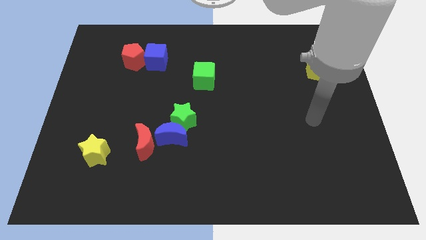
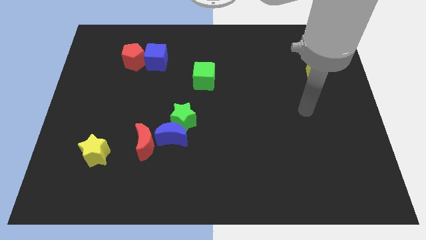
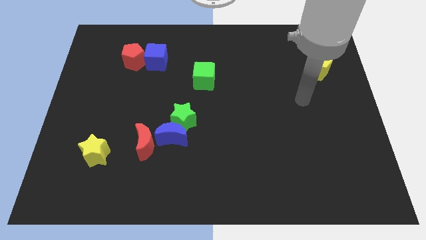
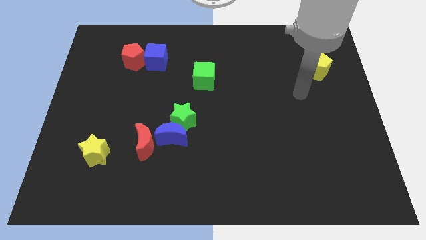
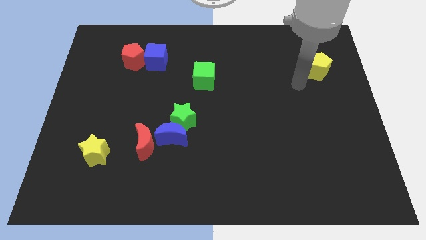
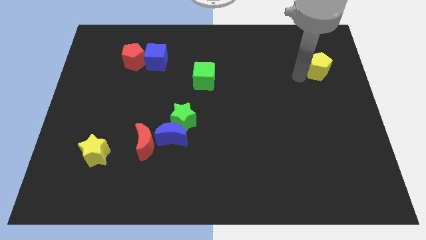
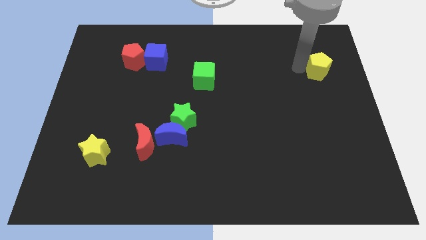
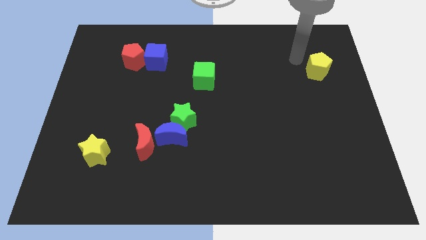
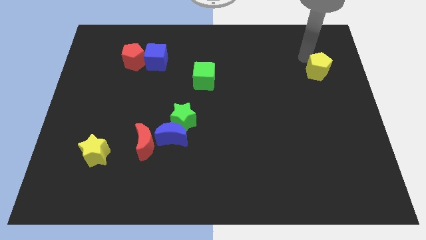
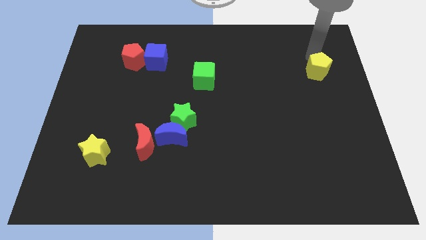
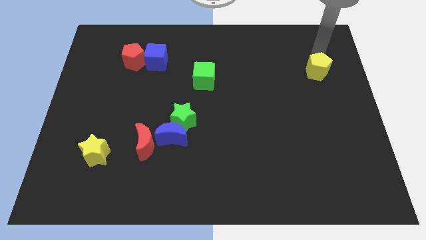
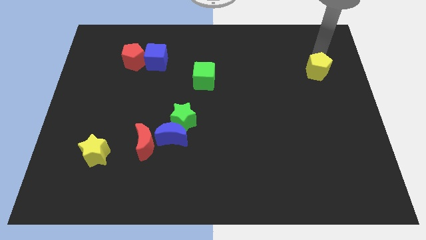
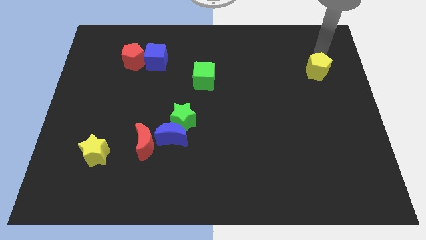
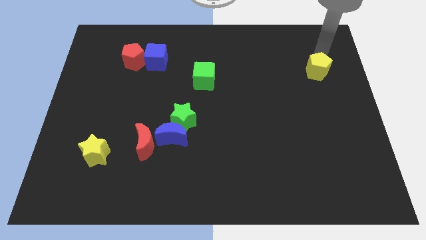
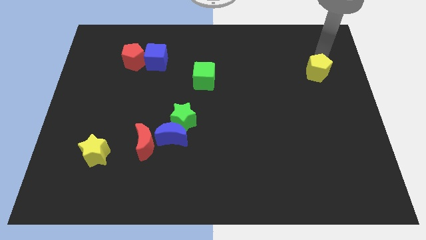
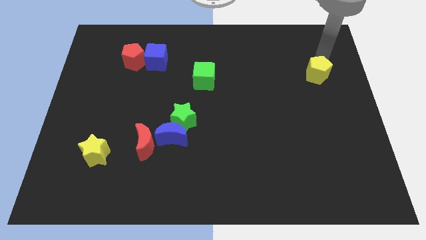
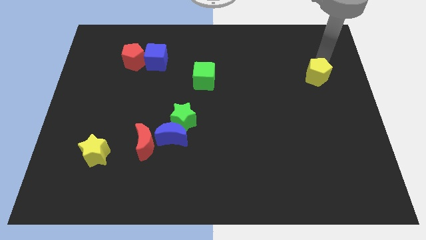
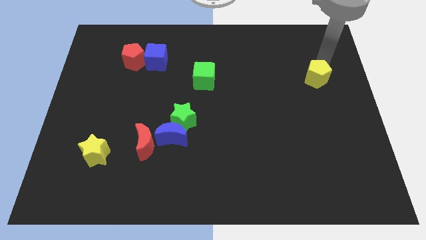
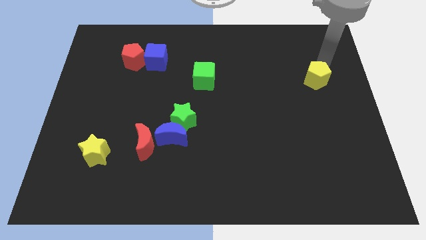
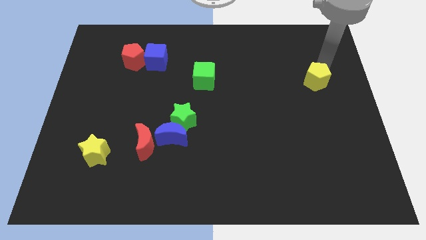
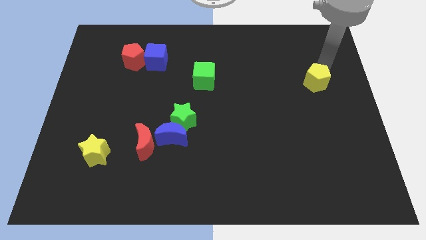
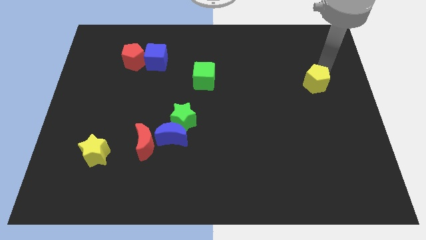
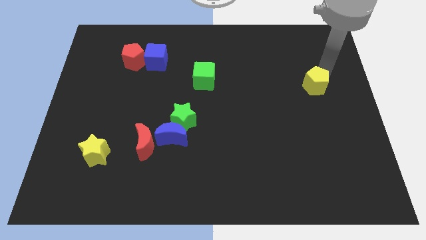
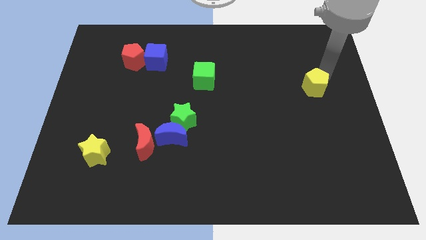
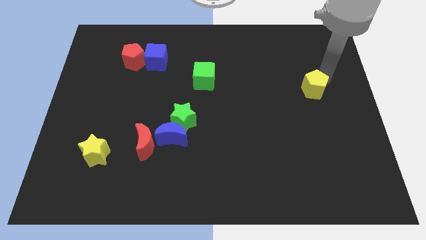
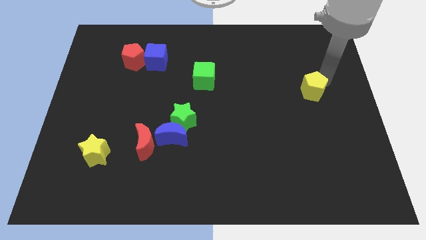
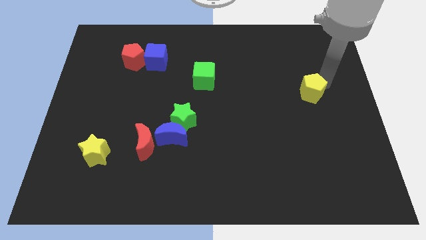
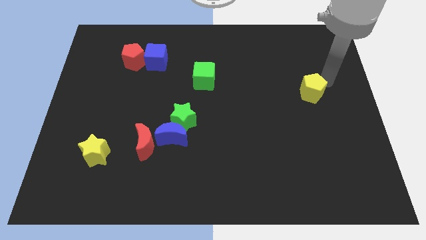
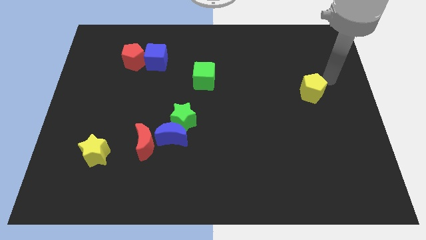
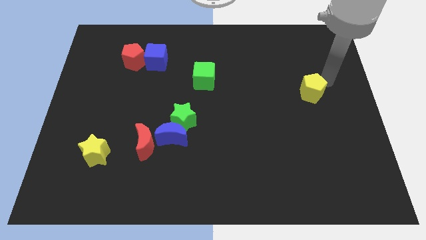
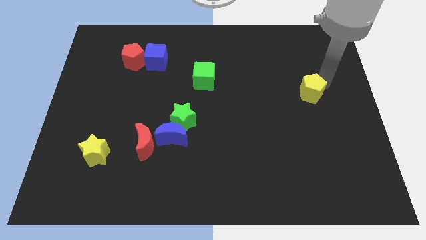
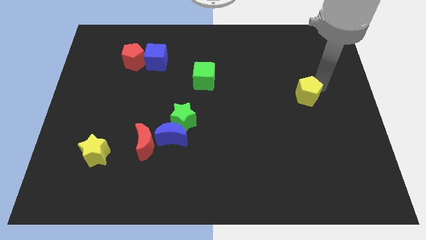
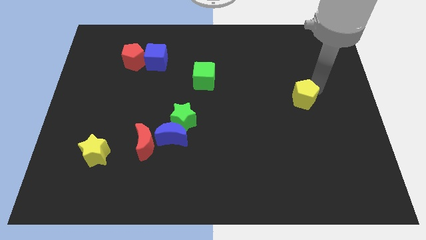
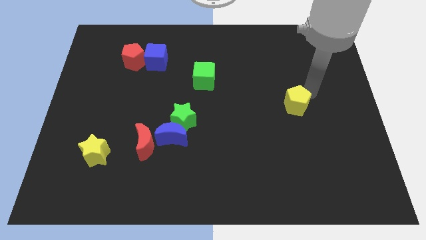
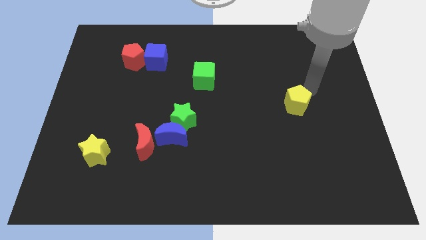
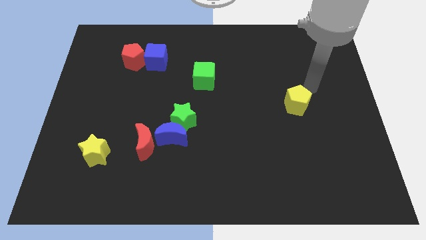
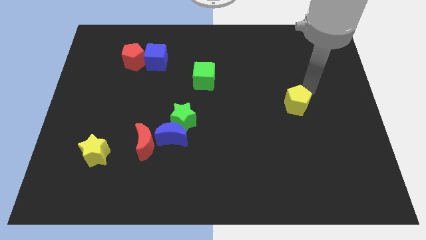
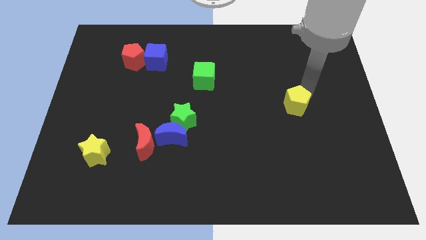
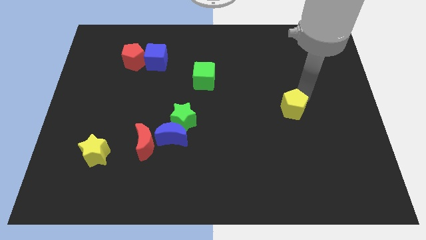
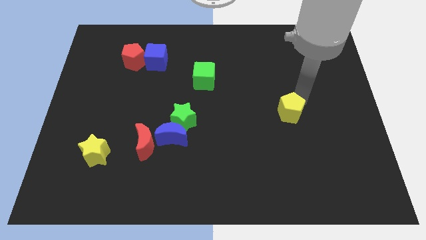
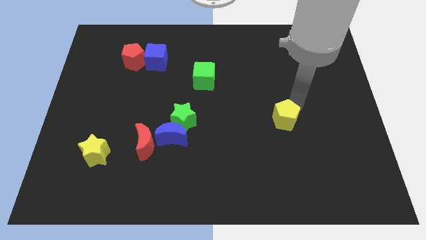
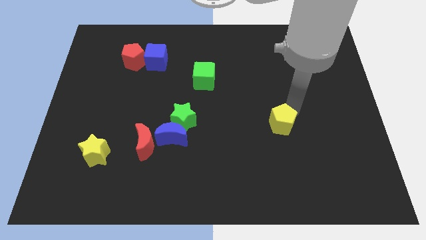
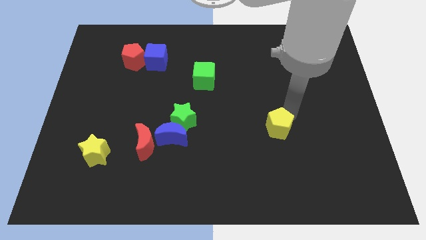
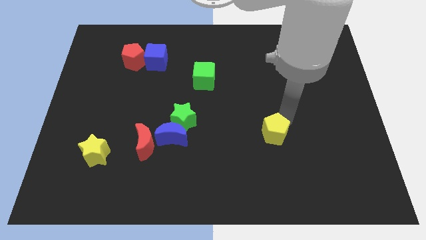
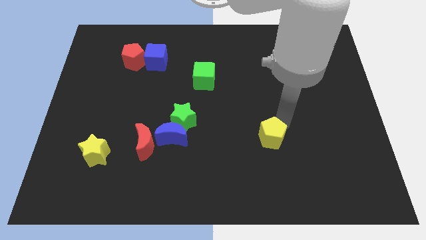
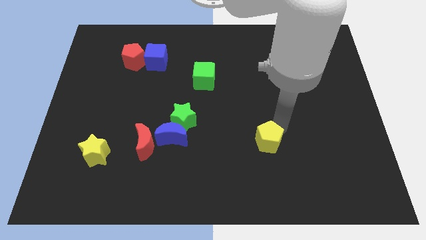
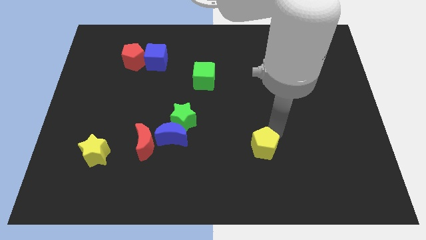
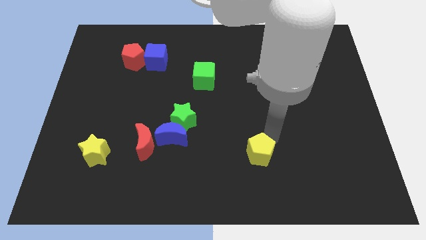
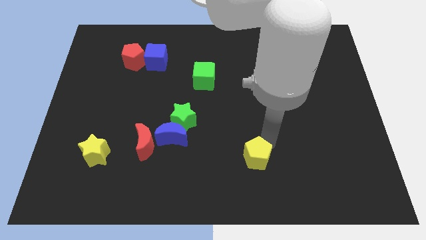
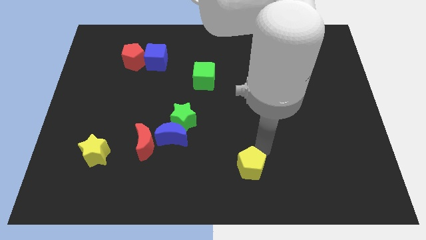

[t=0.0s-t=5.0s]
push the yellow pentagon to the bottom side

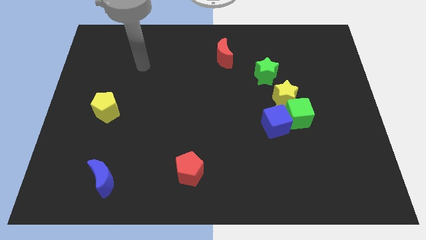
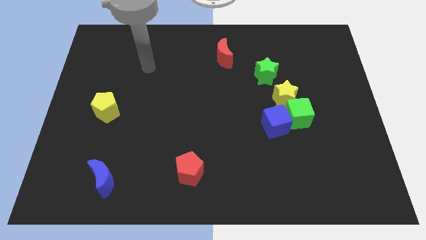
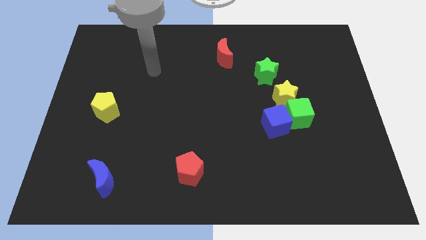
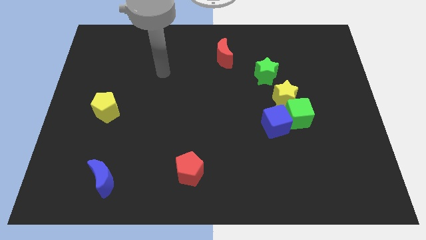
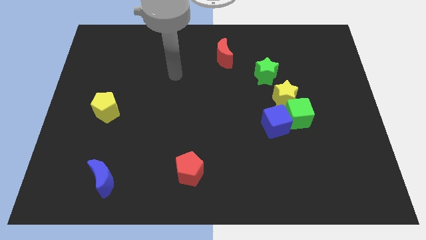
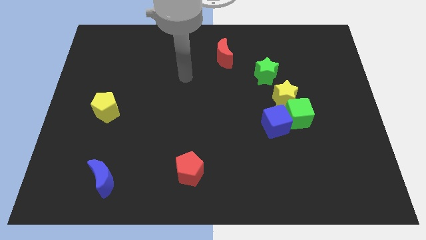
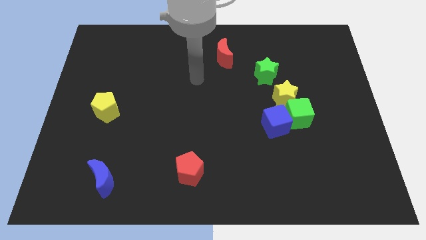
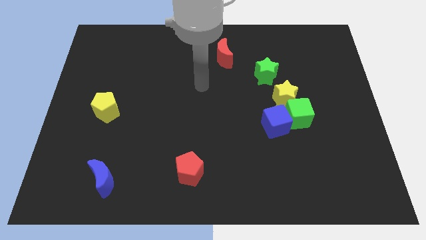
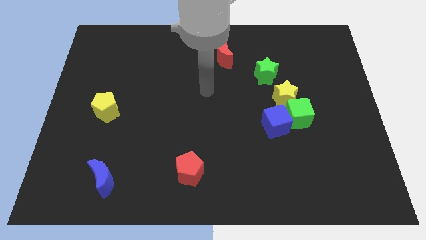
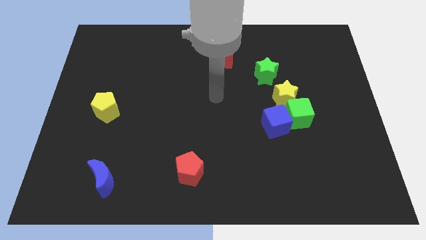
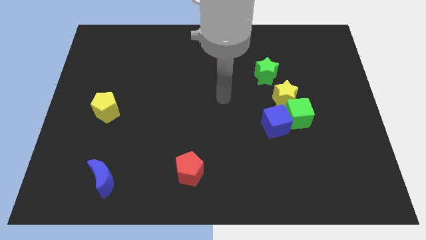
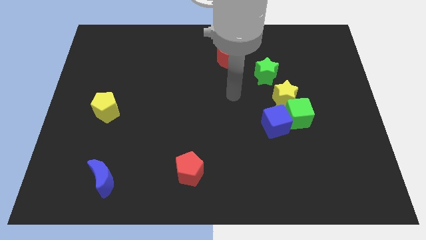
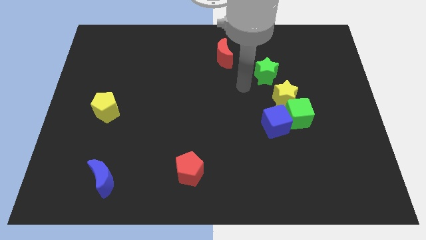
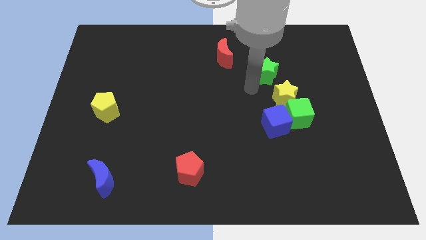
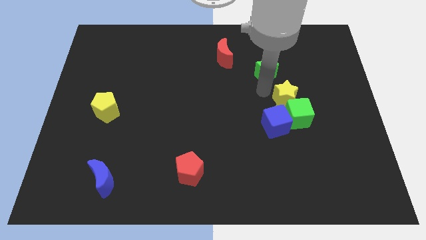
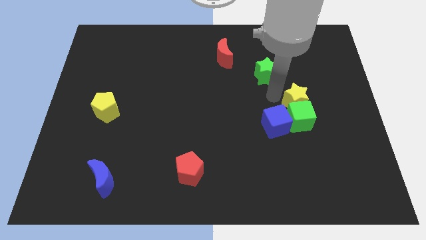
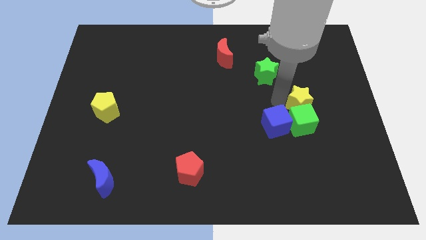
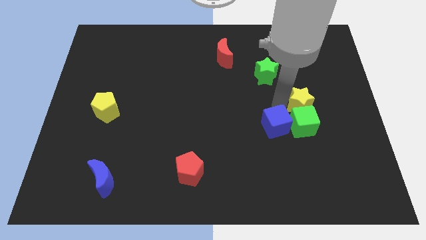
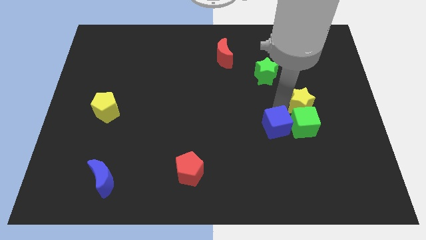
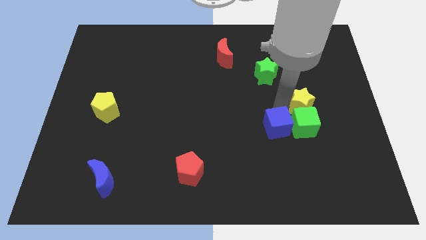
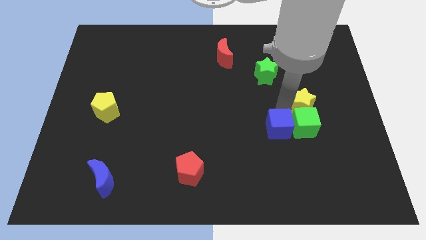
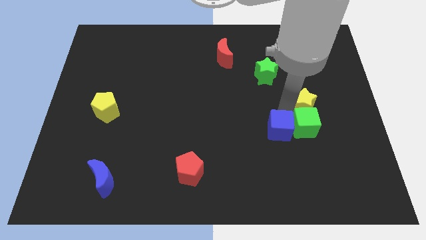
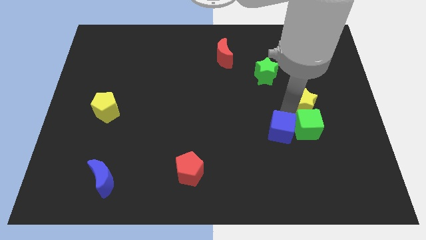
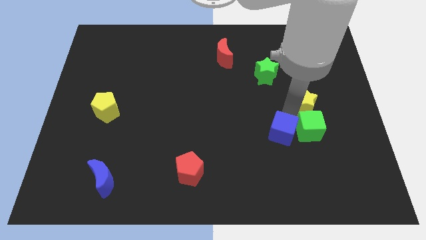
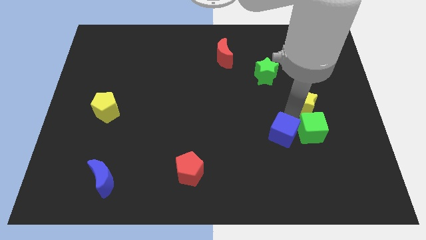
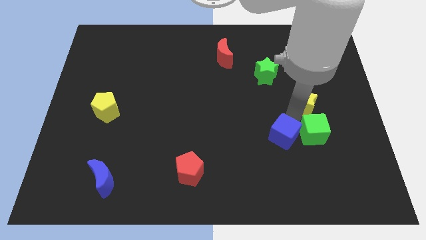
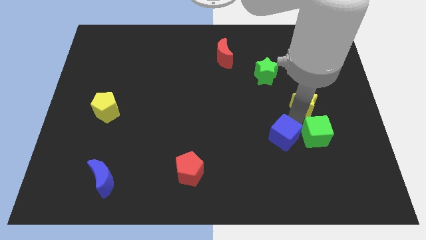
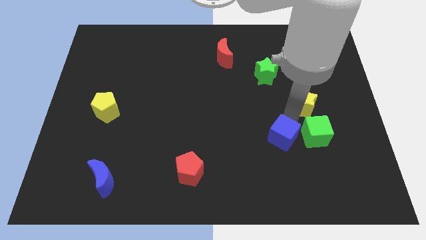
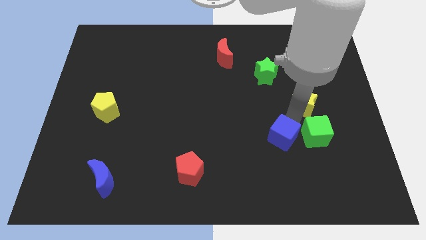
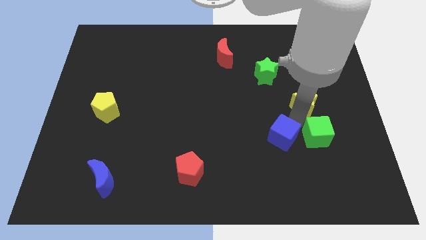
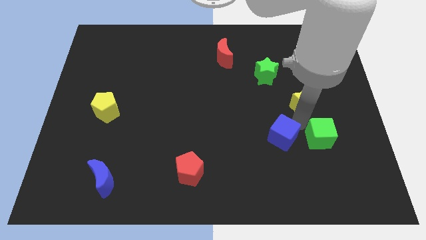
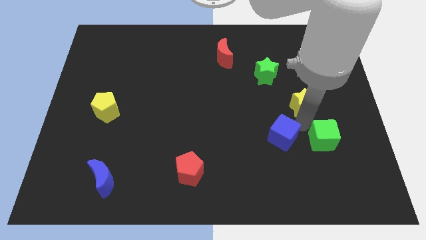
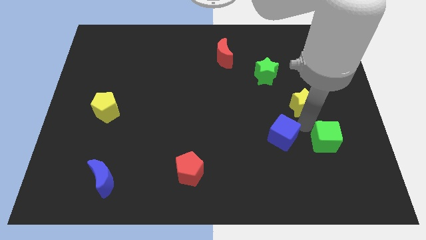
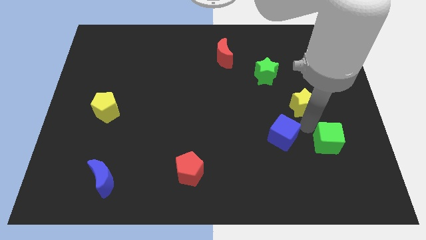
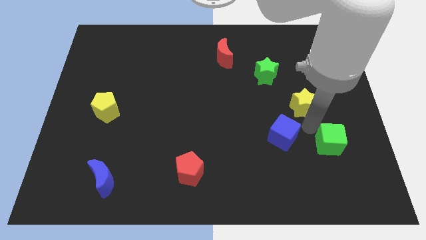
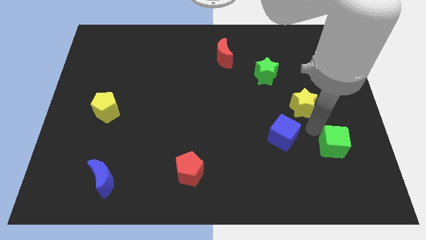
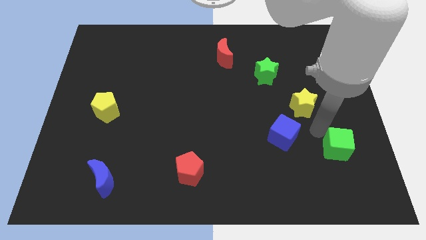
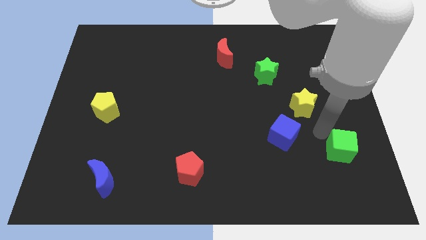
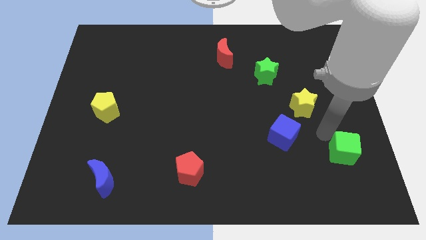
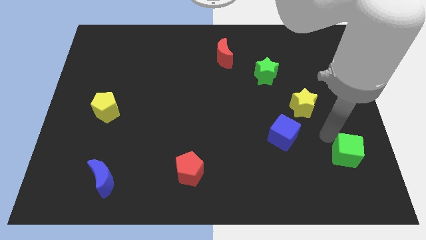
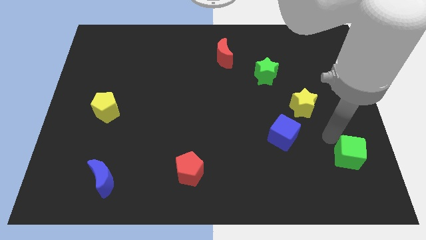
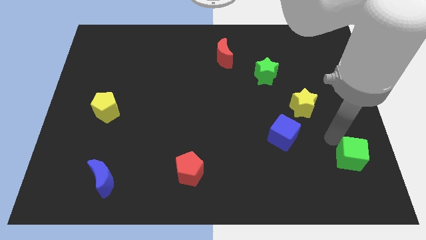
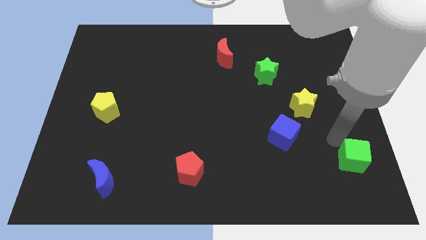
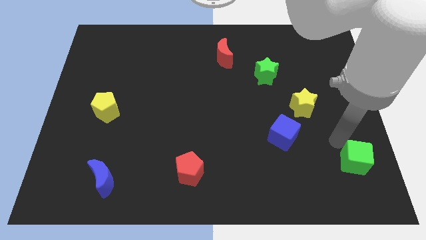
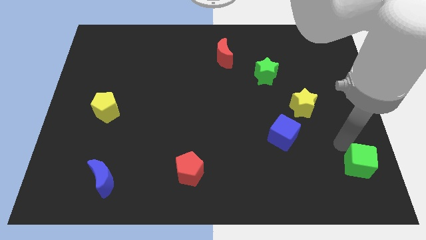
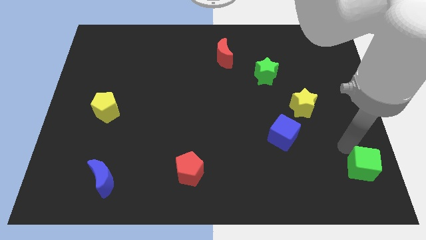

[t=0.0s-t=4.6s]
put the green cube to the bottom right corner
